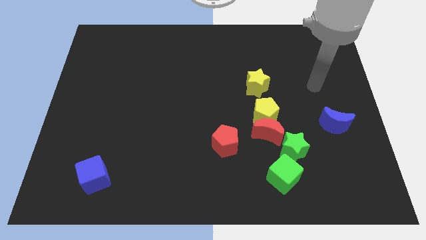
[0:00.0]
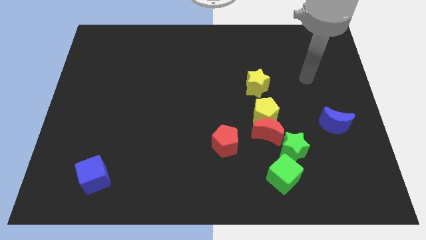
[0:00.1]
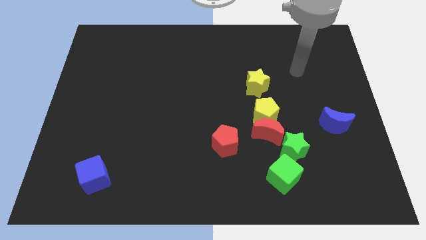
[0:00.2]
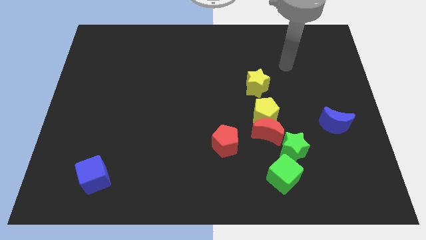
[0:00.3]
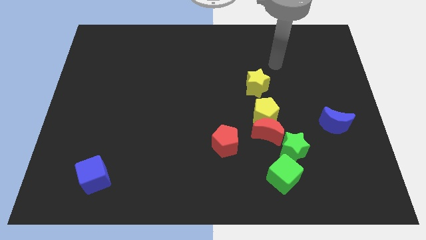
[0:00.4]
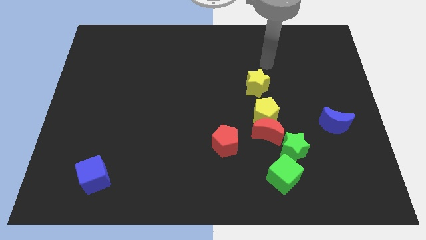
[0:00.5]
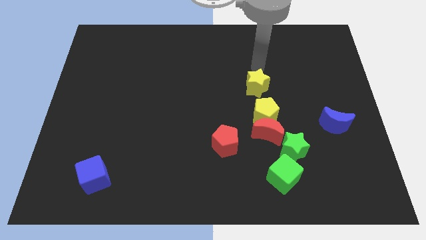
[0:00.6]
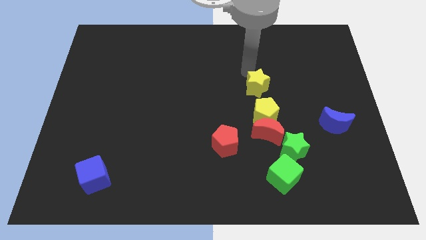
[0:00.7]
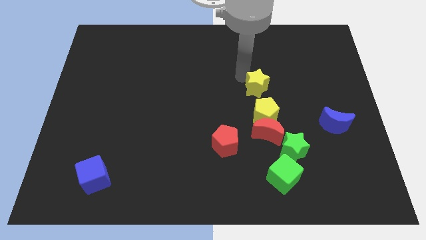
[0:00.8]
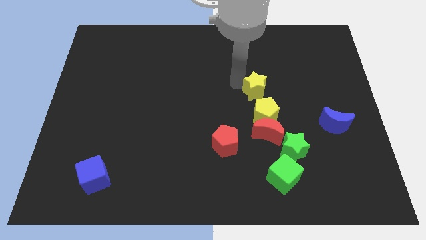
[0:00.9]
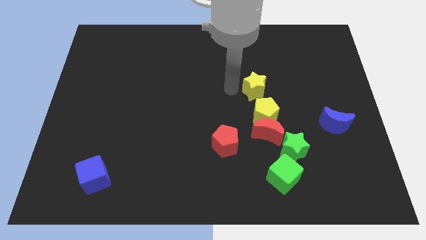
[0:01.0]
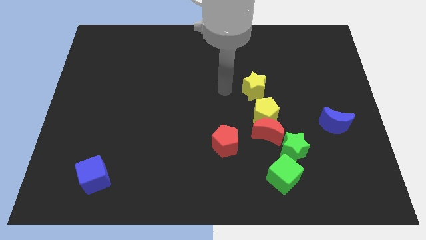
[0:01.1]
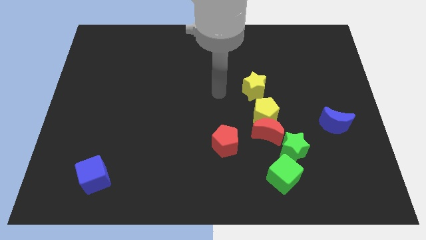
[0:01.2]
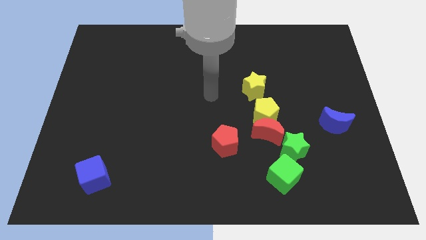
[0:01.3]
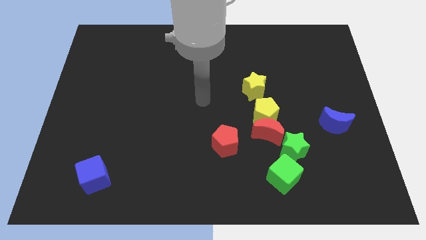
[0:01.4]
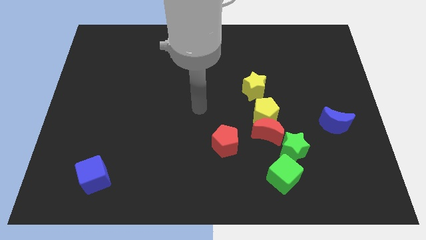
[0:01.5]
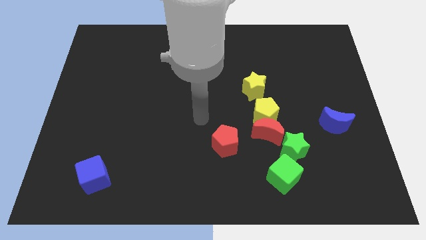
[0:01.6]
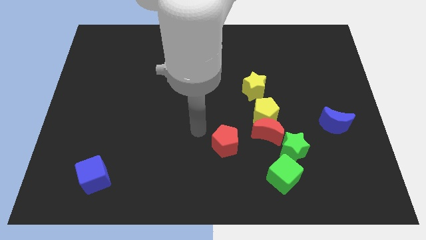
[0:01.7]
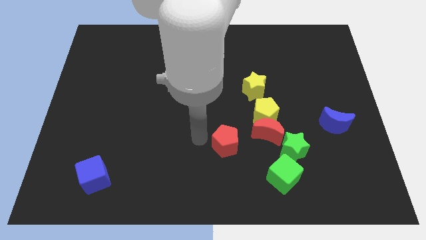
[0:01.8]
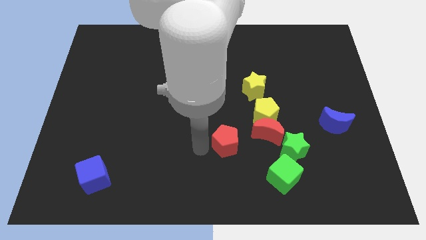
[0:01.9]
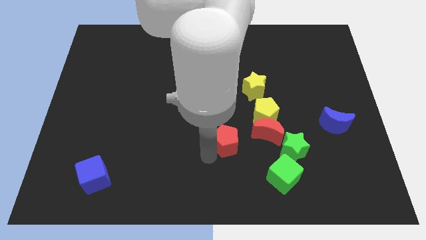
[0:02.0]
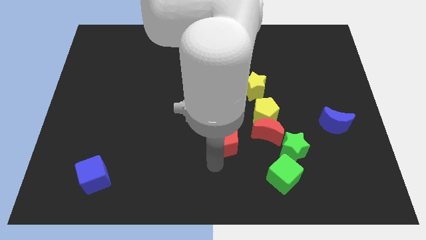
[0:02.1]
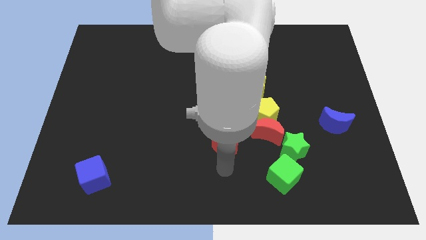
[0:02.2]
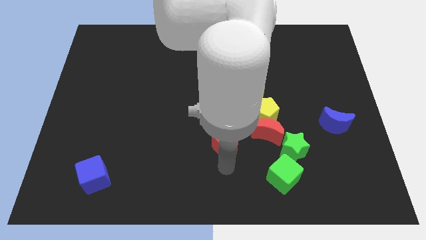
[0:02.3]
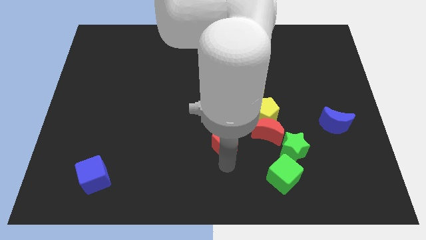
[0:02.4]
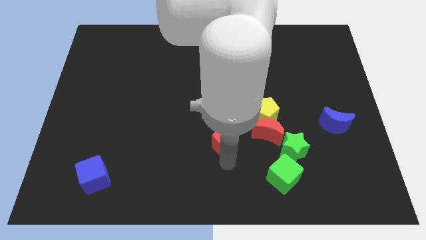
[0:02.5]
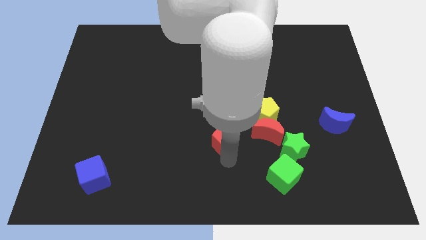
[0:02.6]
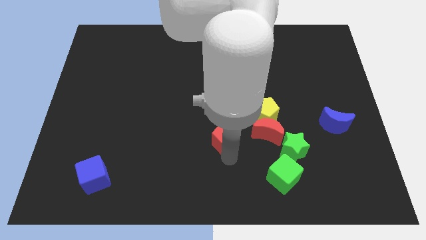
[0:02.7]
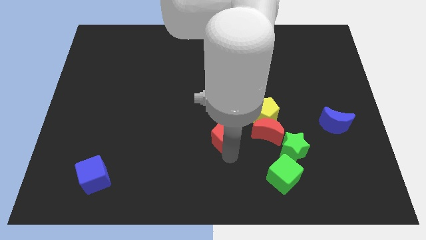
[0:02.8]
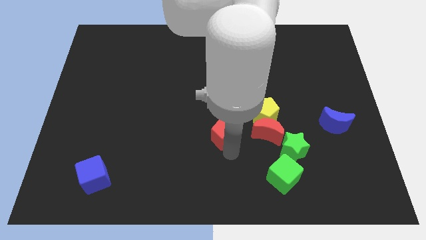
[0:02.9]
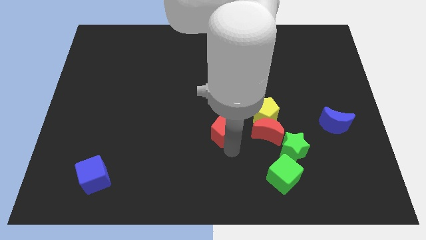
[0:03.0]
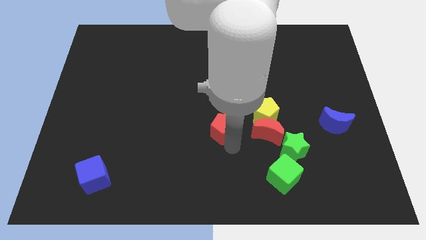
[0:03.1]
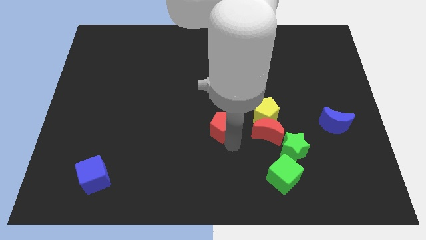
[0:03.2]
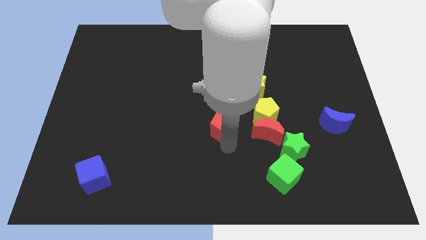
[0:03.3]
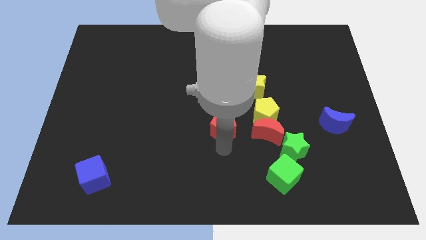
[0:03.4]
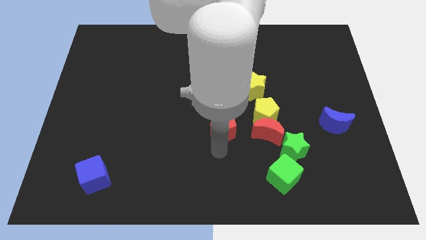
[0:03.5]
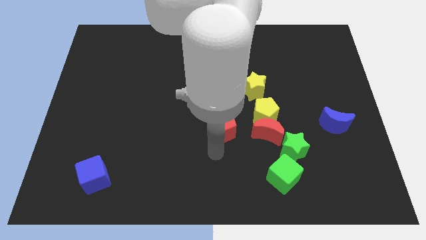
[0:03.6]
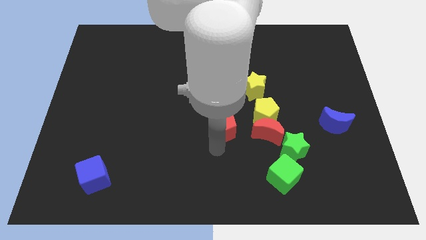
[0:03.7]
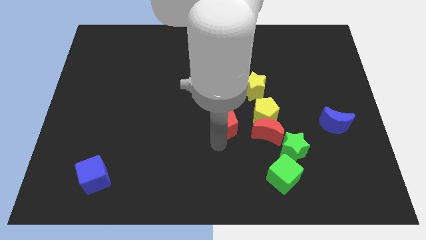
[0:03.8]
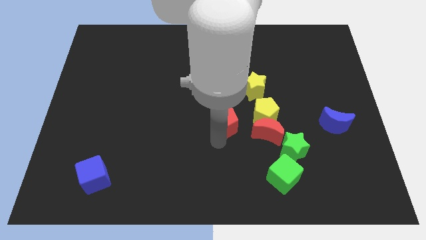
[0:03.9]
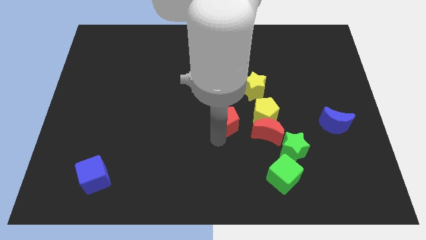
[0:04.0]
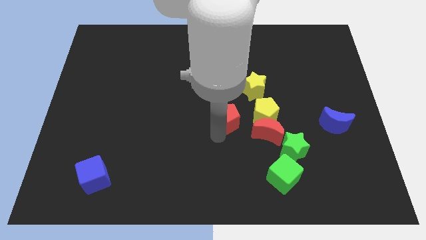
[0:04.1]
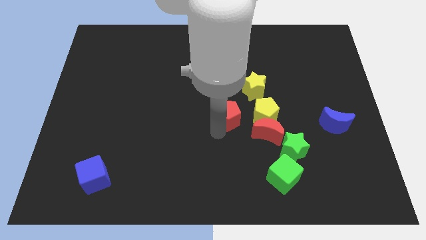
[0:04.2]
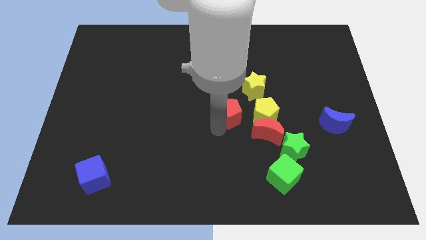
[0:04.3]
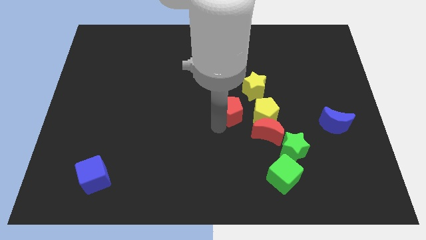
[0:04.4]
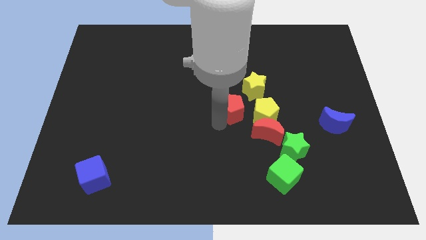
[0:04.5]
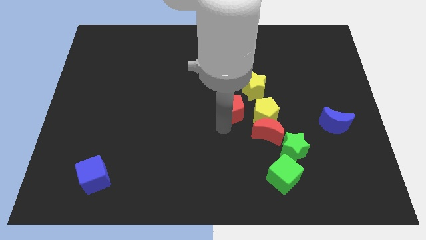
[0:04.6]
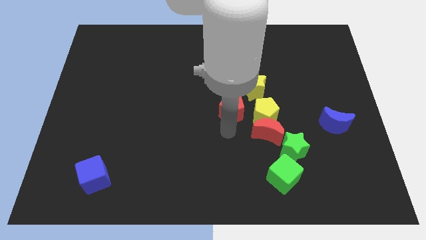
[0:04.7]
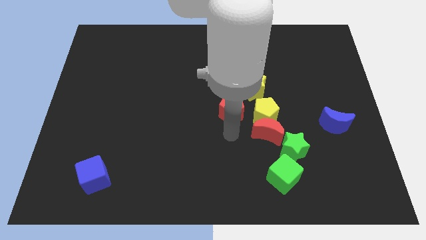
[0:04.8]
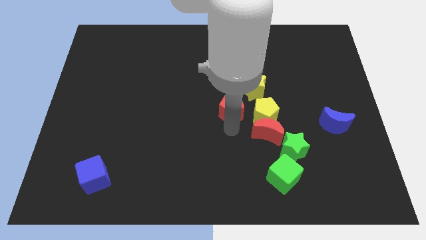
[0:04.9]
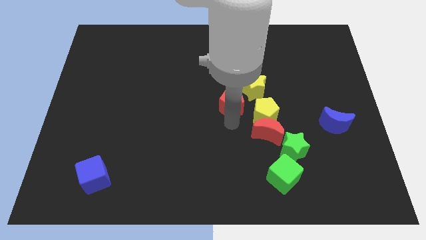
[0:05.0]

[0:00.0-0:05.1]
push the red pentagon up and right diagonally a little bit

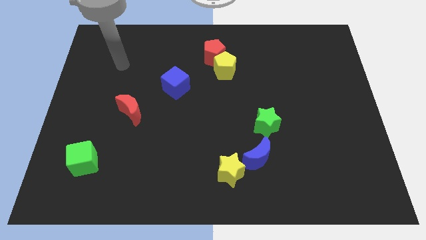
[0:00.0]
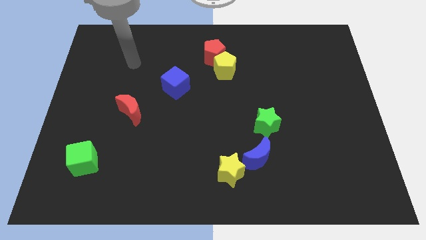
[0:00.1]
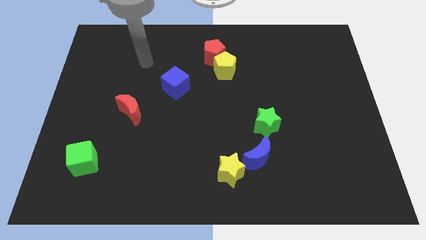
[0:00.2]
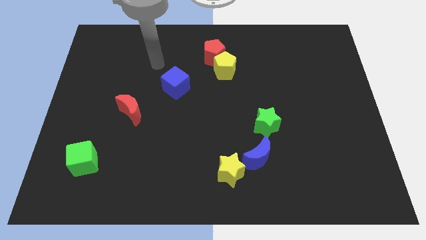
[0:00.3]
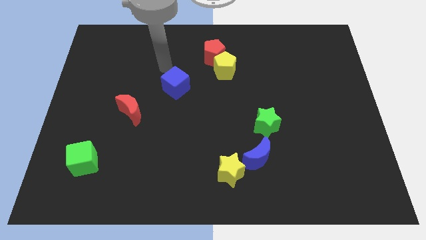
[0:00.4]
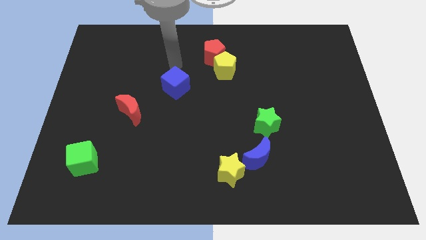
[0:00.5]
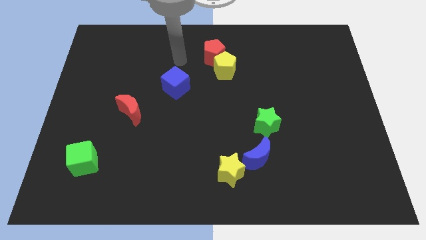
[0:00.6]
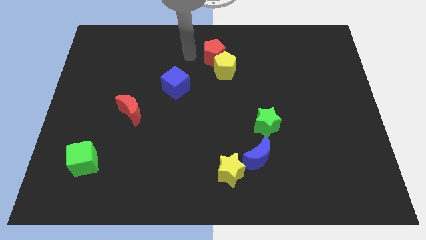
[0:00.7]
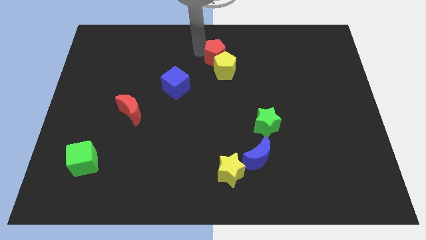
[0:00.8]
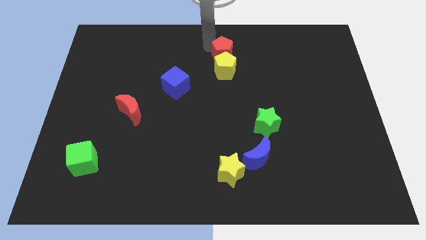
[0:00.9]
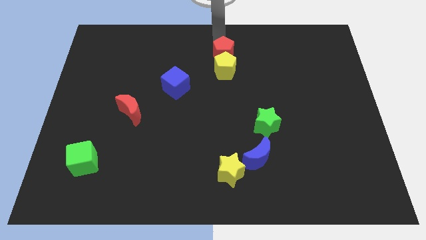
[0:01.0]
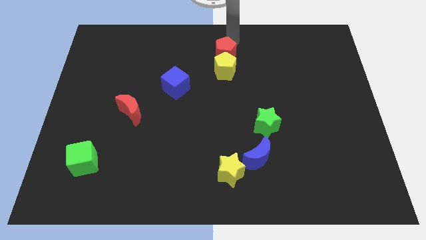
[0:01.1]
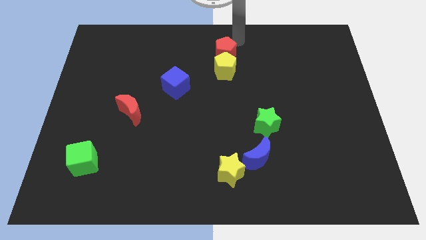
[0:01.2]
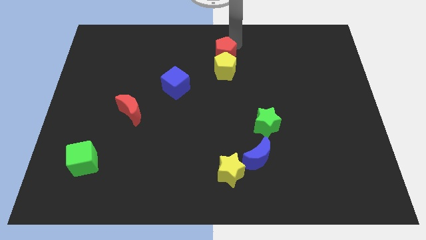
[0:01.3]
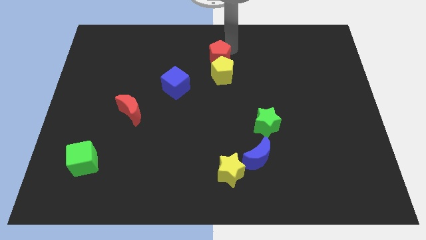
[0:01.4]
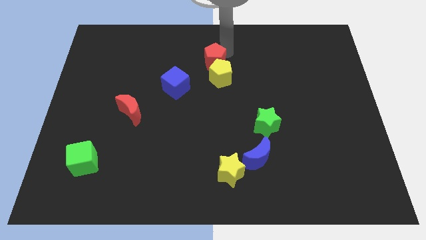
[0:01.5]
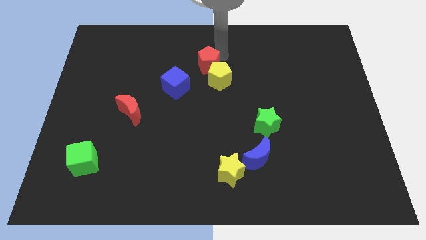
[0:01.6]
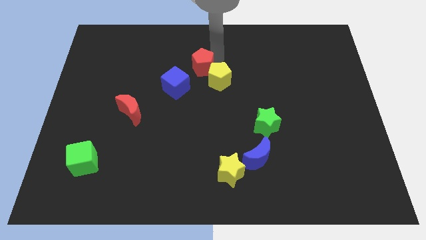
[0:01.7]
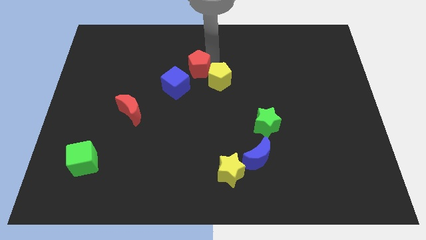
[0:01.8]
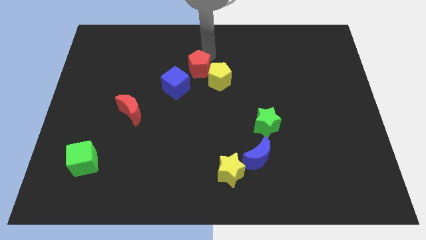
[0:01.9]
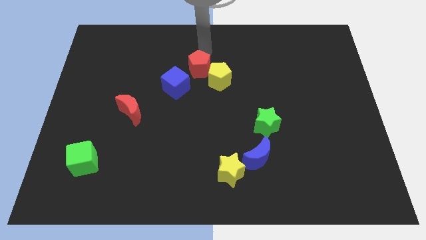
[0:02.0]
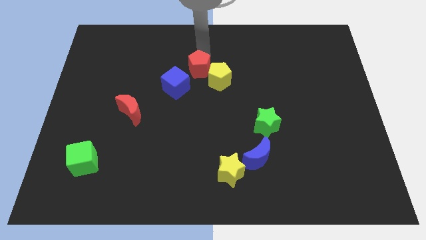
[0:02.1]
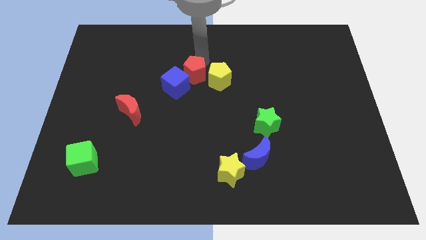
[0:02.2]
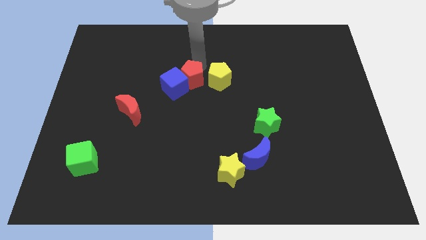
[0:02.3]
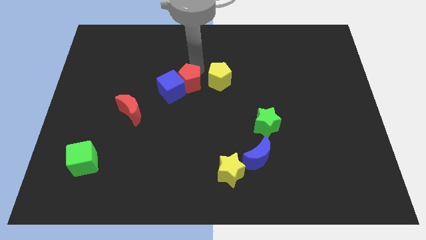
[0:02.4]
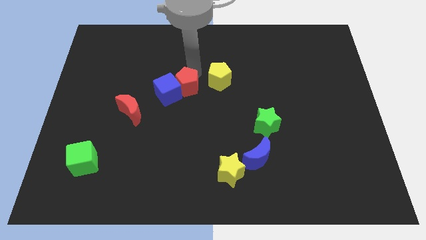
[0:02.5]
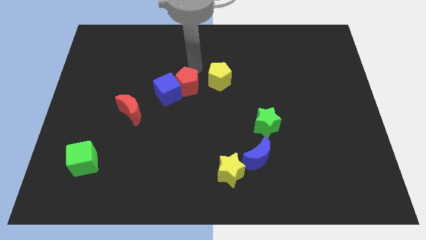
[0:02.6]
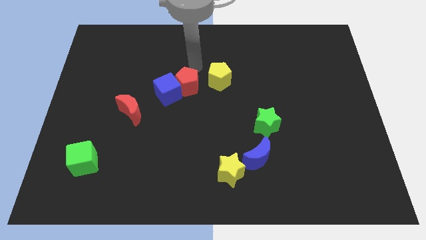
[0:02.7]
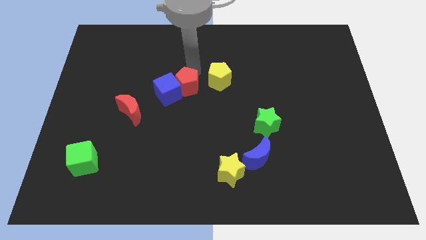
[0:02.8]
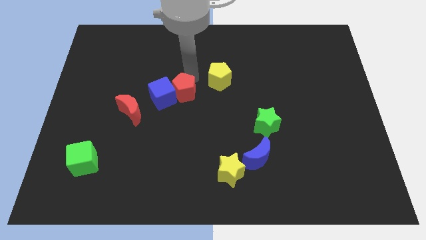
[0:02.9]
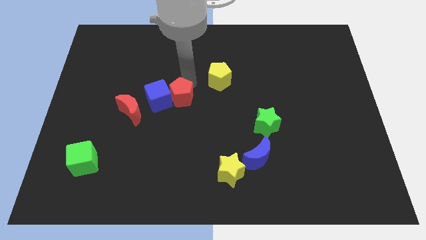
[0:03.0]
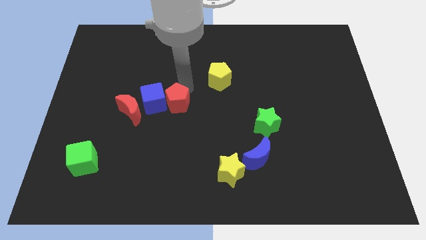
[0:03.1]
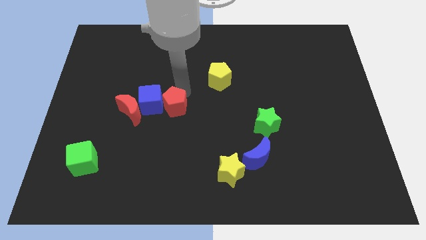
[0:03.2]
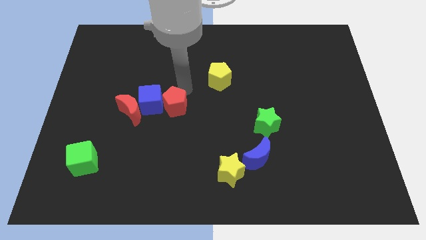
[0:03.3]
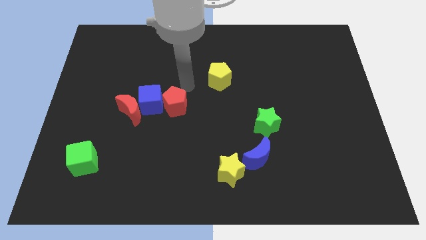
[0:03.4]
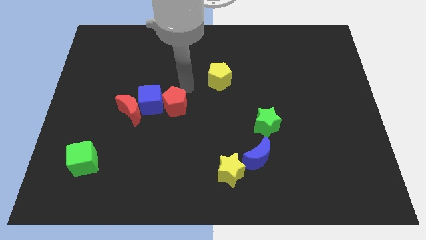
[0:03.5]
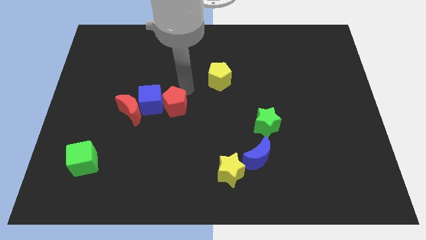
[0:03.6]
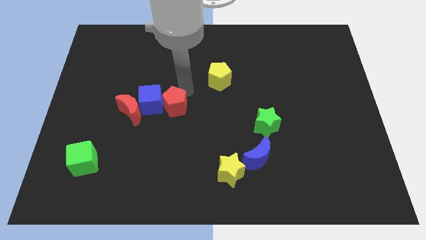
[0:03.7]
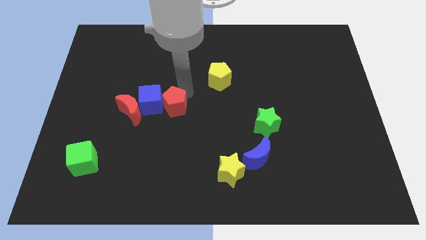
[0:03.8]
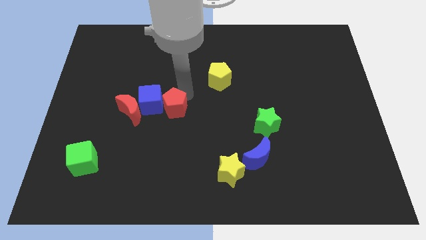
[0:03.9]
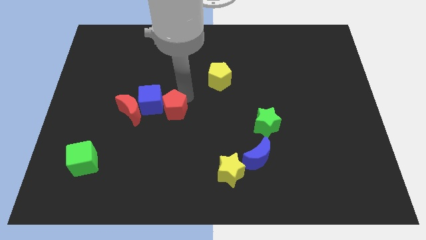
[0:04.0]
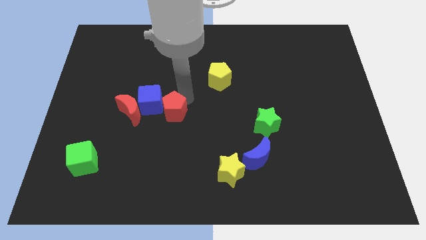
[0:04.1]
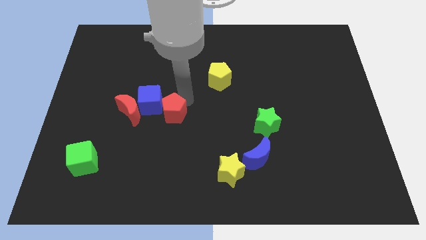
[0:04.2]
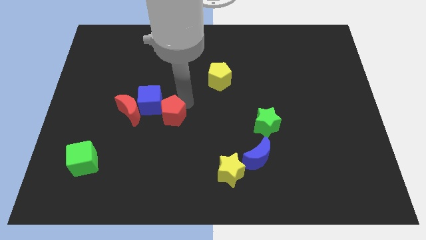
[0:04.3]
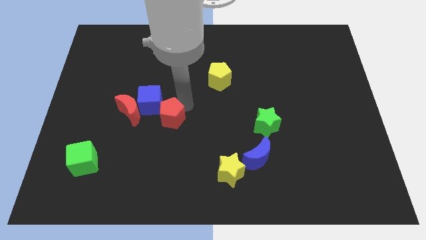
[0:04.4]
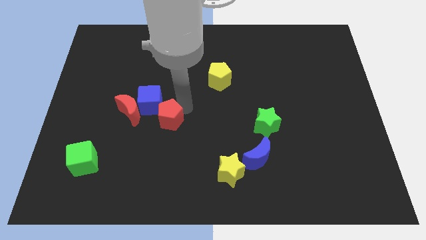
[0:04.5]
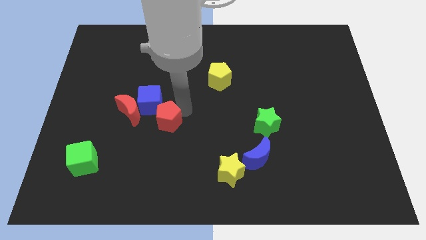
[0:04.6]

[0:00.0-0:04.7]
push the red pentagon down and then left
